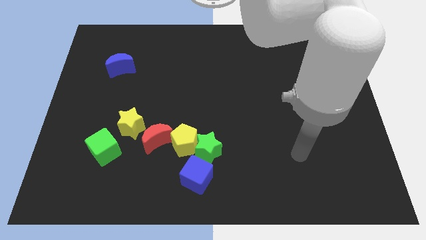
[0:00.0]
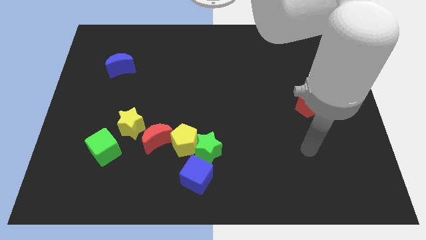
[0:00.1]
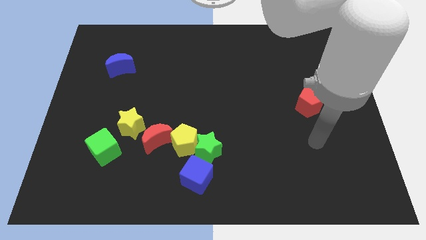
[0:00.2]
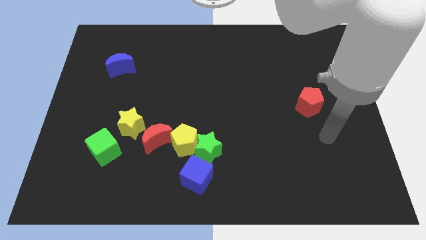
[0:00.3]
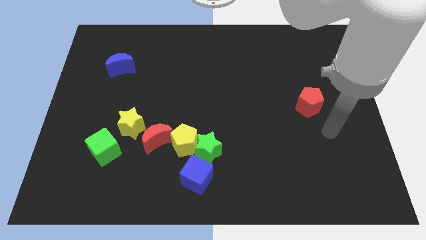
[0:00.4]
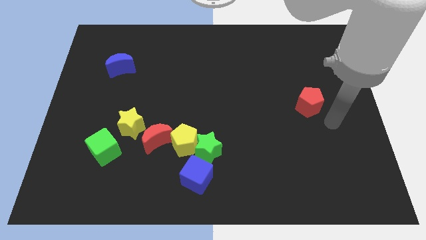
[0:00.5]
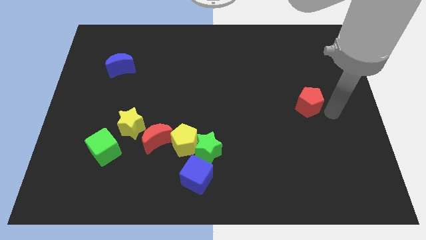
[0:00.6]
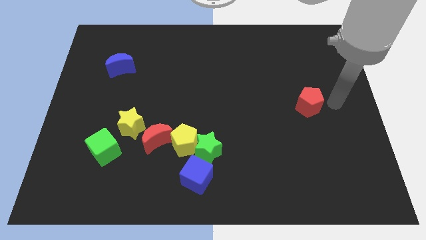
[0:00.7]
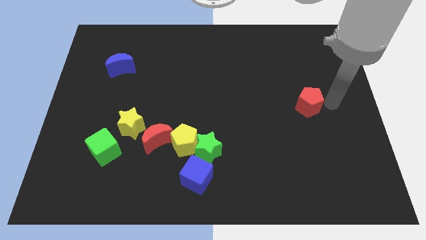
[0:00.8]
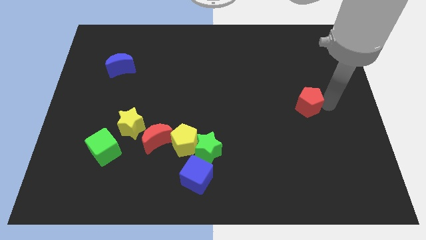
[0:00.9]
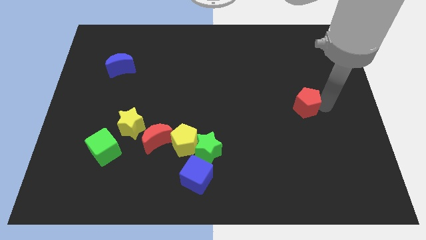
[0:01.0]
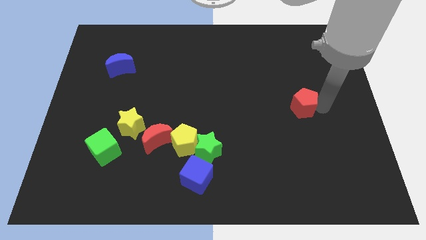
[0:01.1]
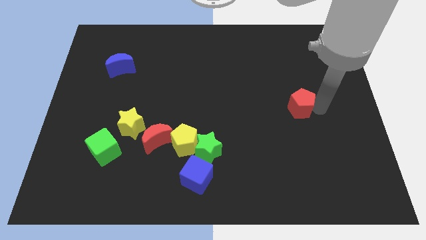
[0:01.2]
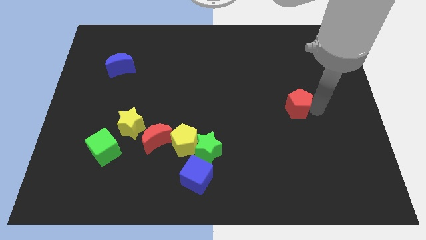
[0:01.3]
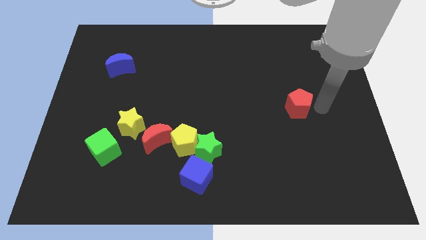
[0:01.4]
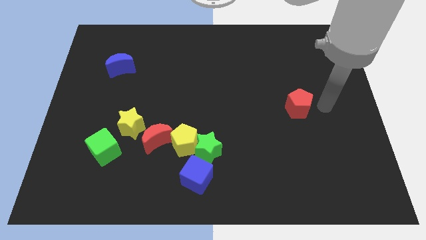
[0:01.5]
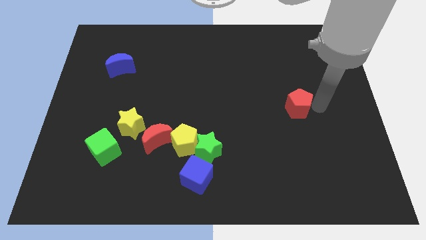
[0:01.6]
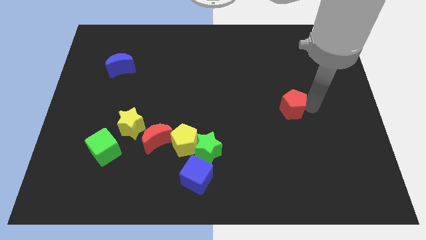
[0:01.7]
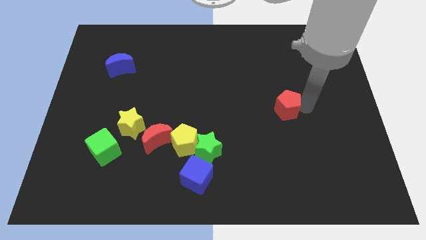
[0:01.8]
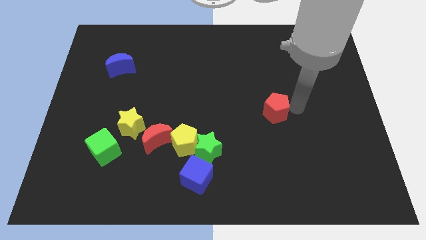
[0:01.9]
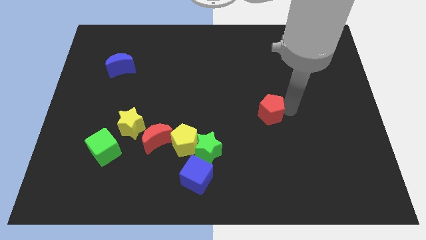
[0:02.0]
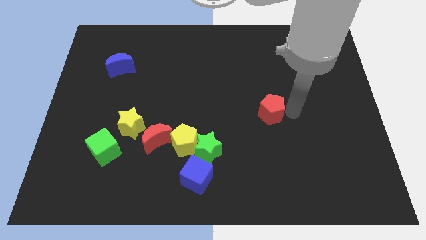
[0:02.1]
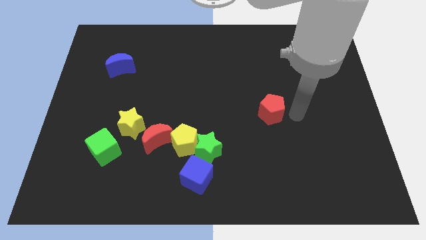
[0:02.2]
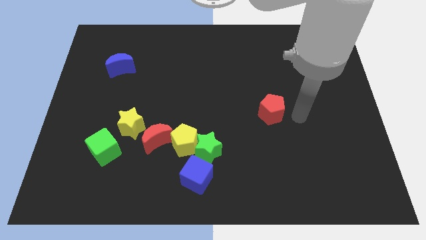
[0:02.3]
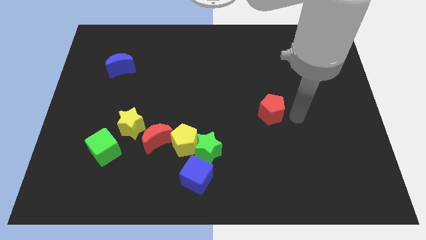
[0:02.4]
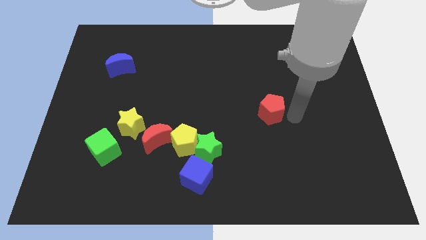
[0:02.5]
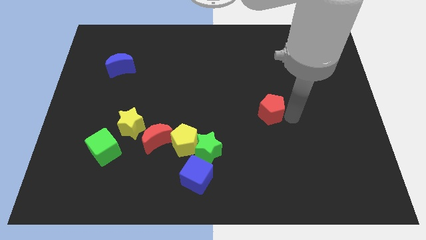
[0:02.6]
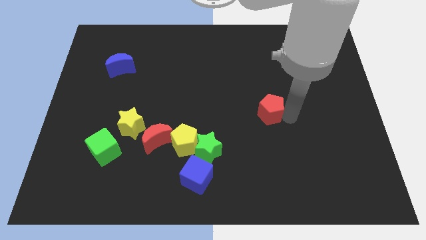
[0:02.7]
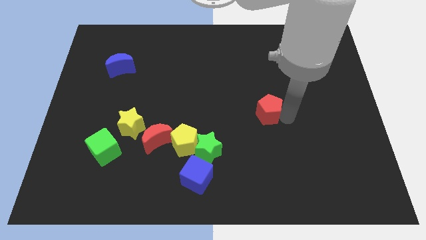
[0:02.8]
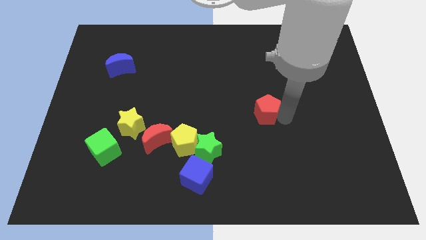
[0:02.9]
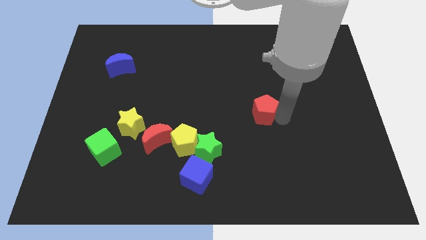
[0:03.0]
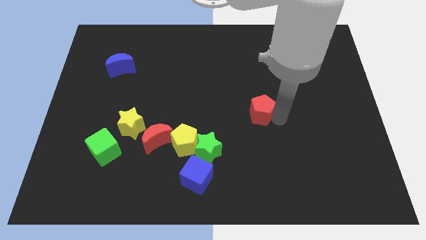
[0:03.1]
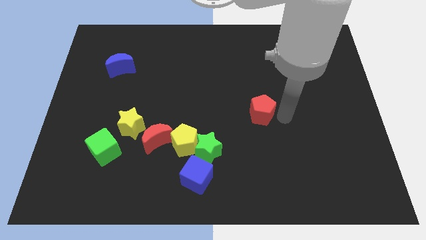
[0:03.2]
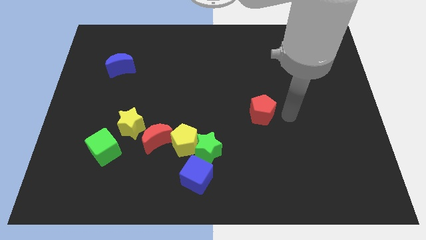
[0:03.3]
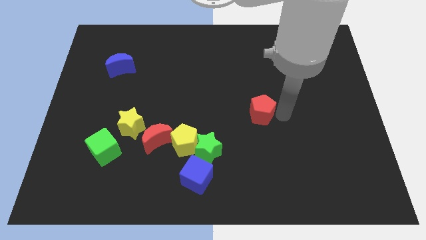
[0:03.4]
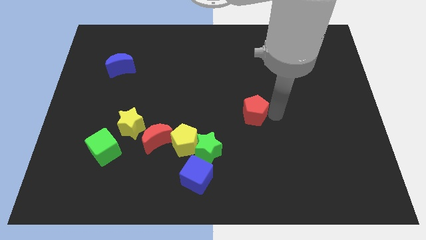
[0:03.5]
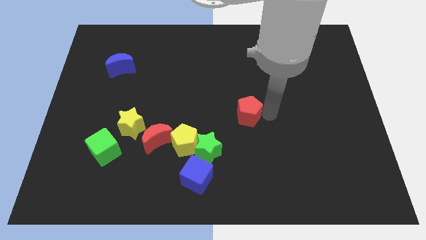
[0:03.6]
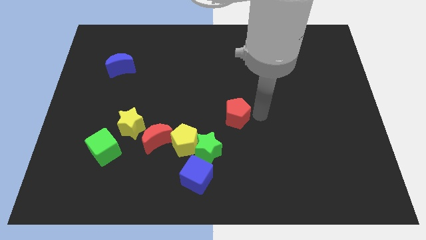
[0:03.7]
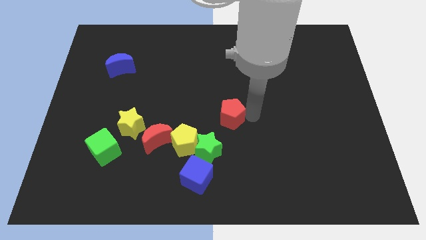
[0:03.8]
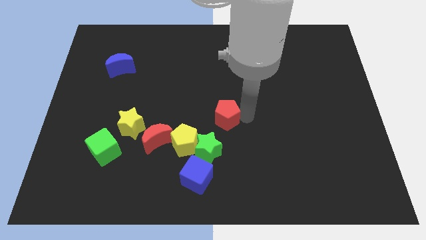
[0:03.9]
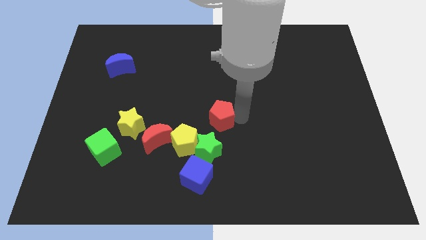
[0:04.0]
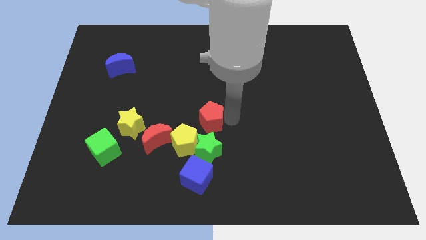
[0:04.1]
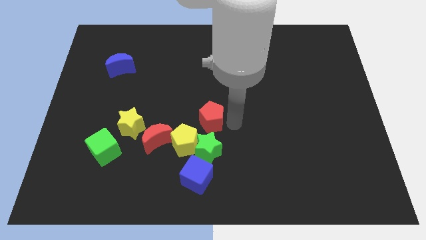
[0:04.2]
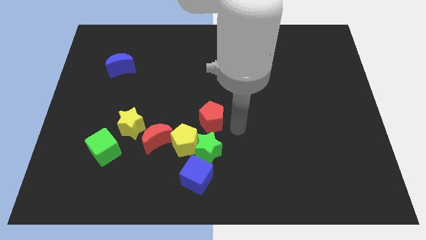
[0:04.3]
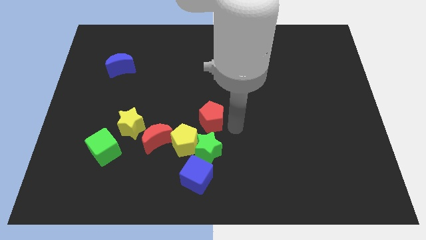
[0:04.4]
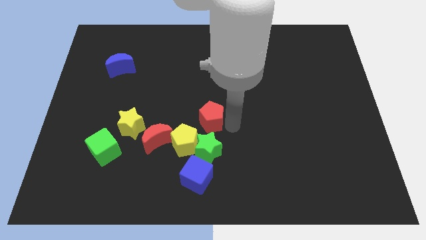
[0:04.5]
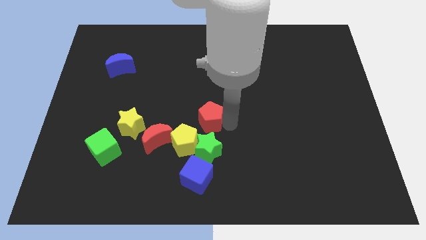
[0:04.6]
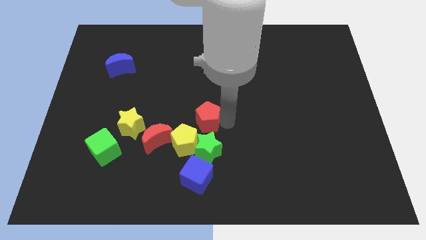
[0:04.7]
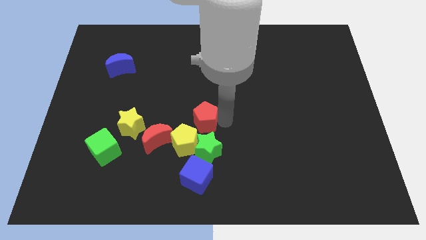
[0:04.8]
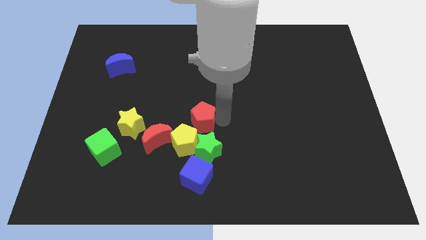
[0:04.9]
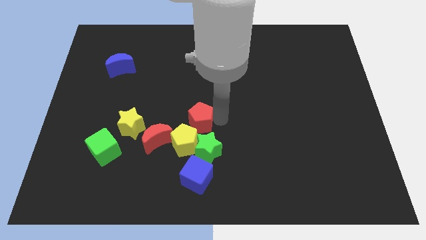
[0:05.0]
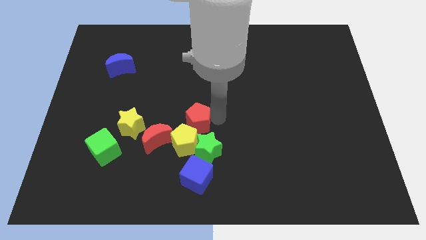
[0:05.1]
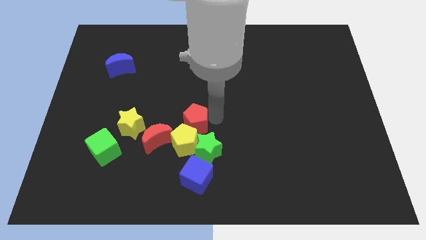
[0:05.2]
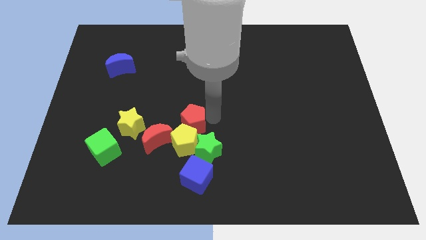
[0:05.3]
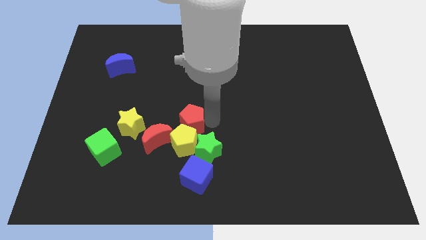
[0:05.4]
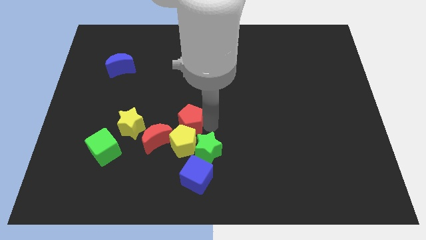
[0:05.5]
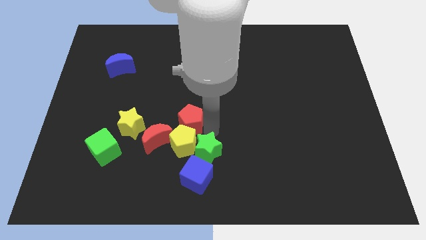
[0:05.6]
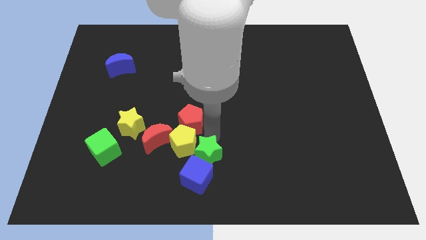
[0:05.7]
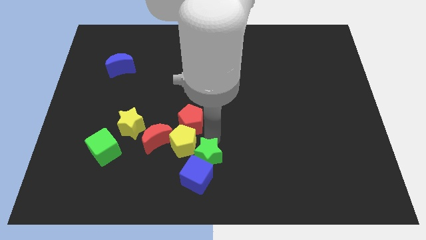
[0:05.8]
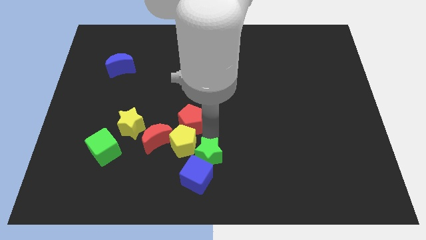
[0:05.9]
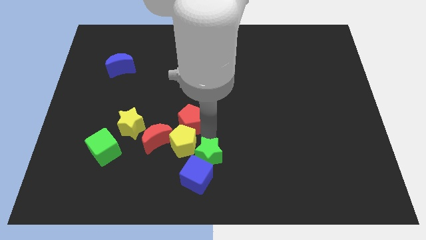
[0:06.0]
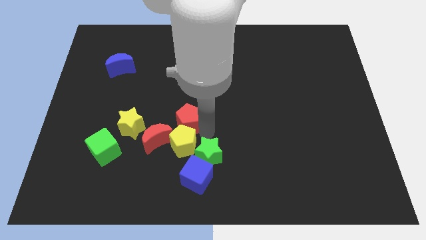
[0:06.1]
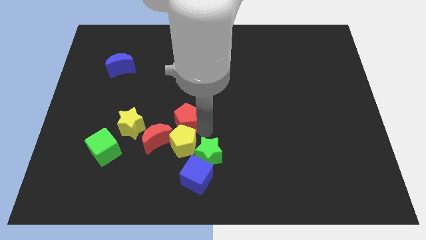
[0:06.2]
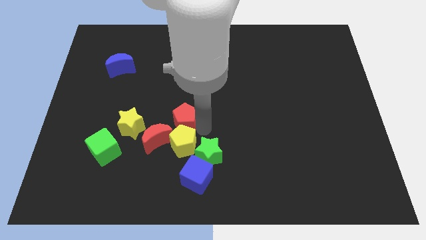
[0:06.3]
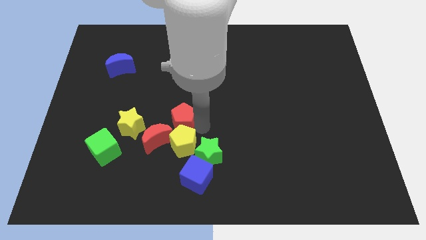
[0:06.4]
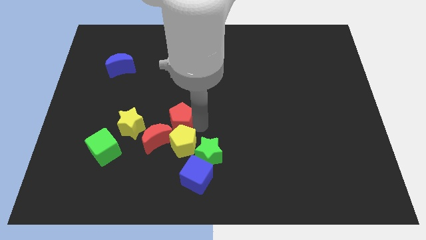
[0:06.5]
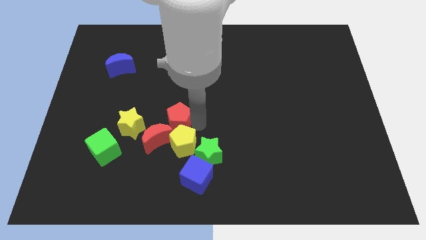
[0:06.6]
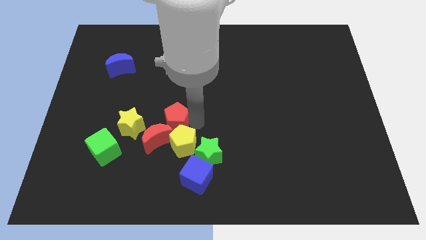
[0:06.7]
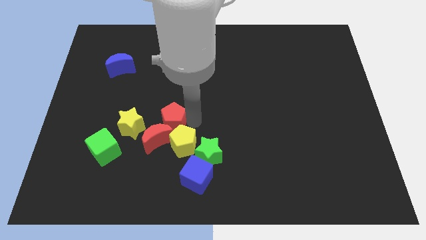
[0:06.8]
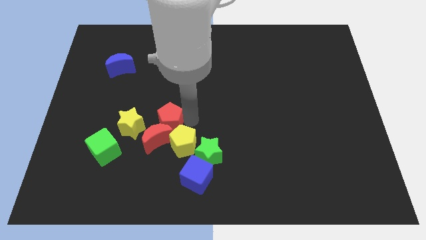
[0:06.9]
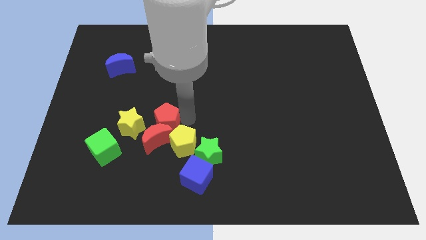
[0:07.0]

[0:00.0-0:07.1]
move the red pentagon to the top right side of the yellow star

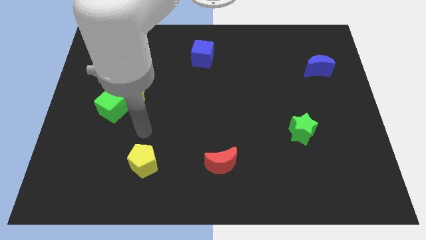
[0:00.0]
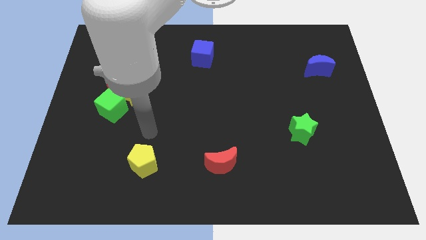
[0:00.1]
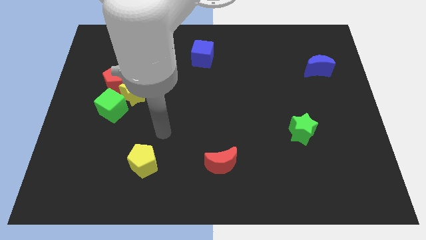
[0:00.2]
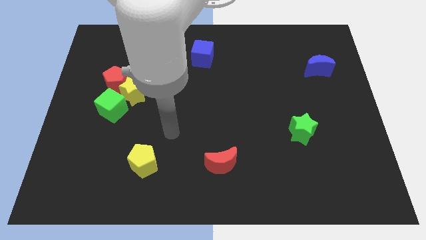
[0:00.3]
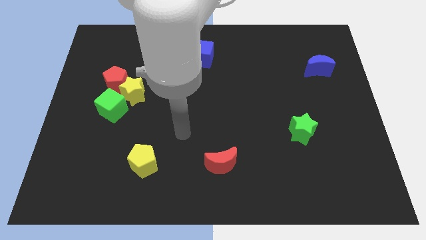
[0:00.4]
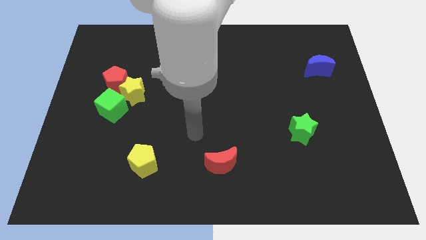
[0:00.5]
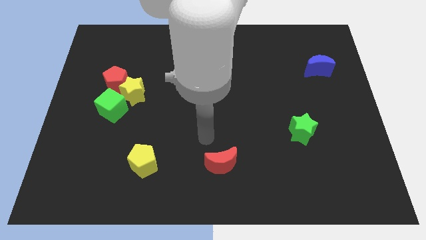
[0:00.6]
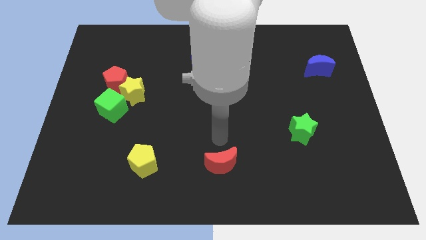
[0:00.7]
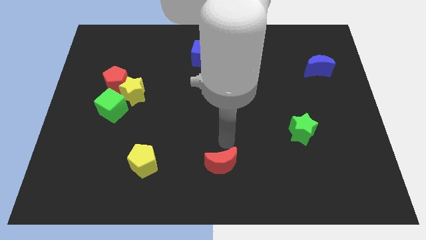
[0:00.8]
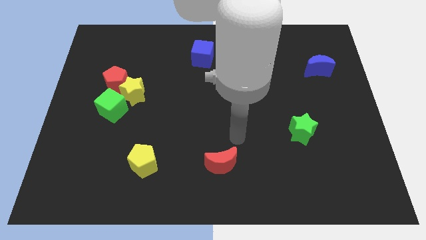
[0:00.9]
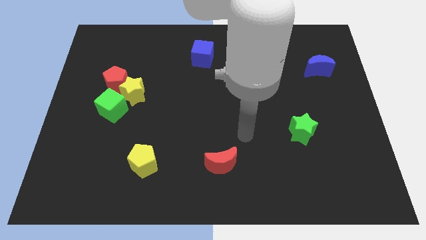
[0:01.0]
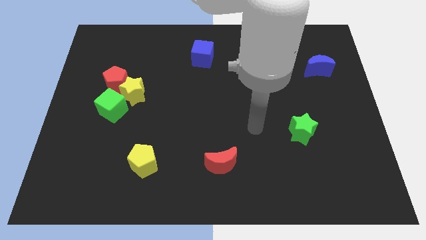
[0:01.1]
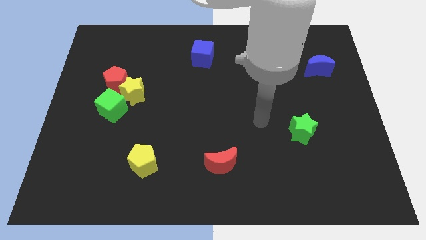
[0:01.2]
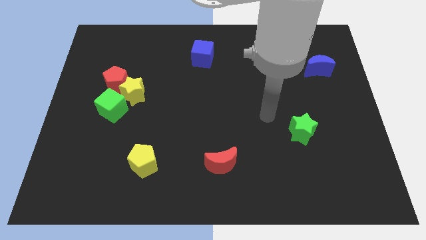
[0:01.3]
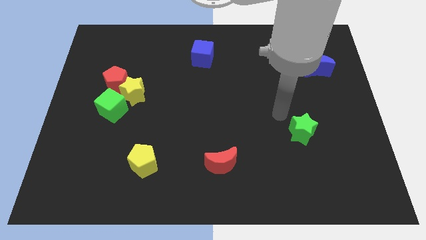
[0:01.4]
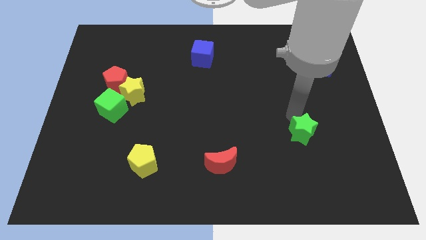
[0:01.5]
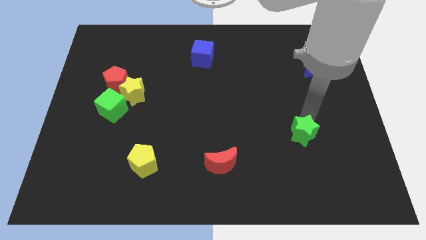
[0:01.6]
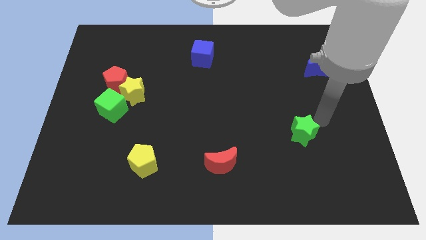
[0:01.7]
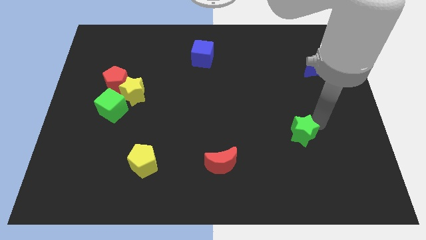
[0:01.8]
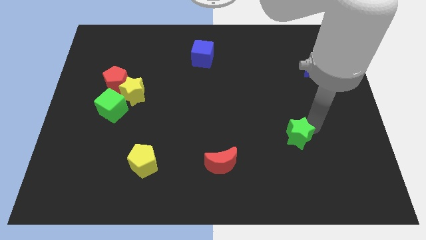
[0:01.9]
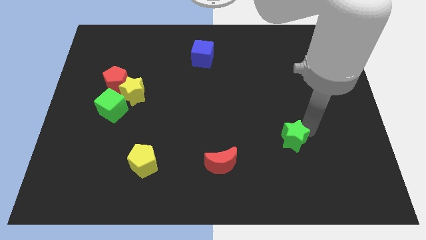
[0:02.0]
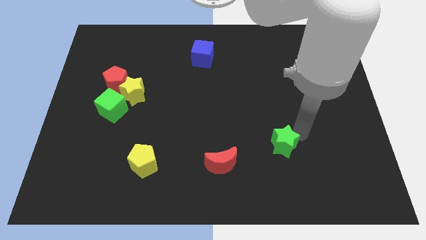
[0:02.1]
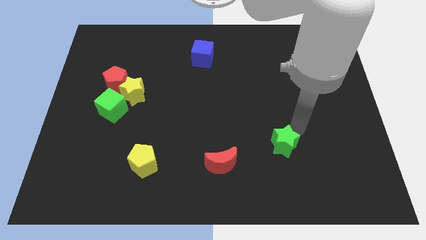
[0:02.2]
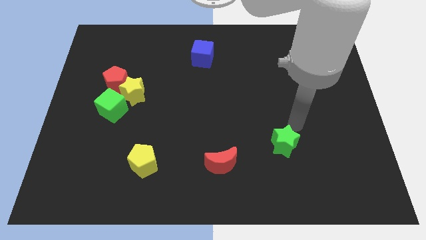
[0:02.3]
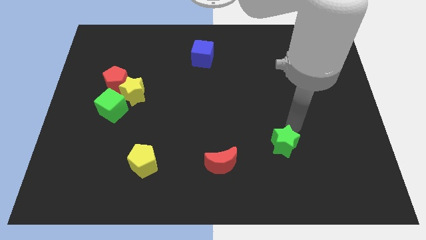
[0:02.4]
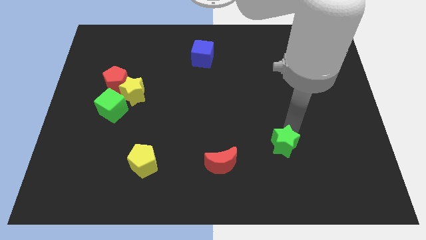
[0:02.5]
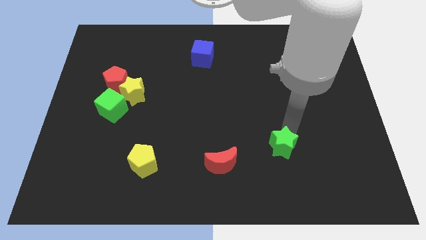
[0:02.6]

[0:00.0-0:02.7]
slide the green star just right of the red moon
